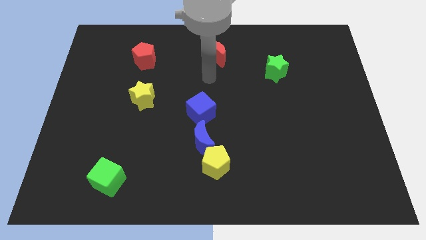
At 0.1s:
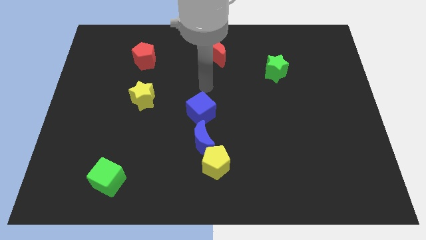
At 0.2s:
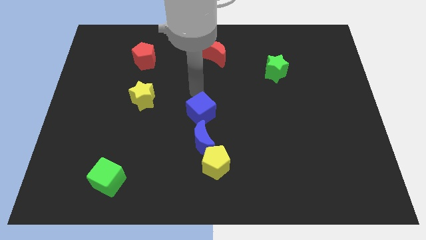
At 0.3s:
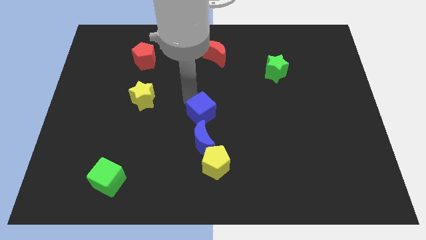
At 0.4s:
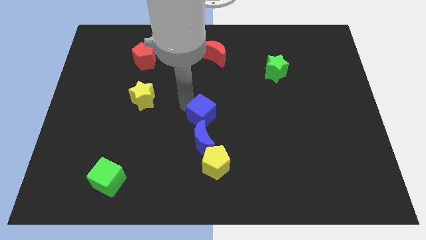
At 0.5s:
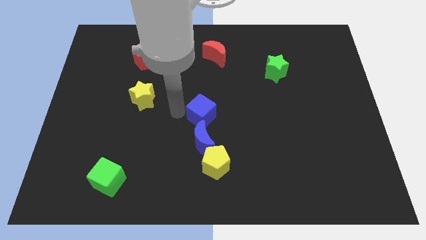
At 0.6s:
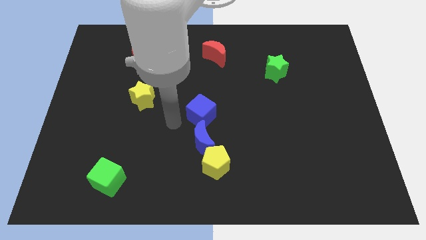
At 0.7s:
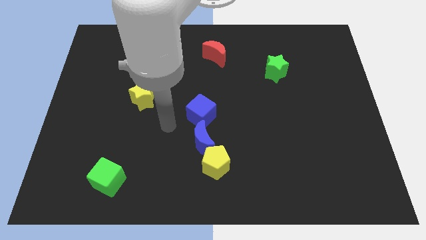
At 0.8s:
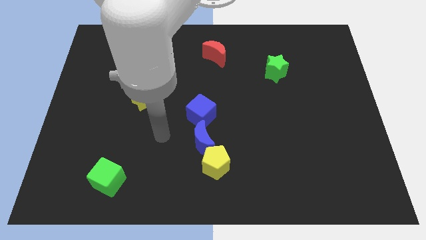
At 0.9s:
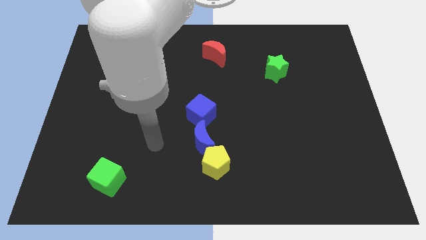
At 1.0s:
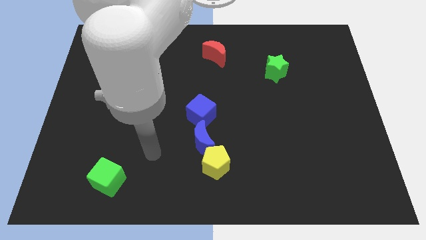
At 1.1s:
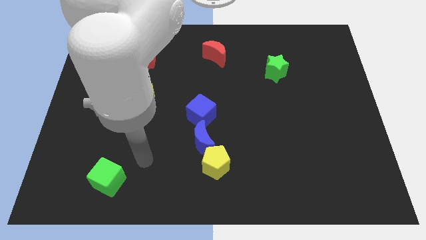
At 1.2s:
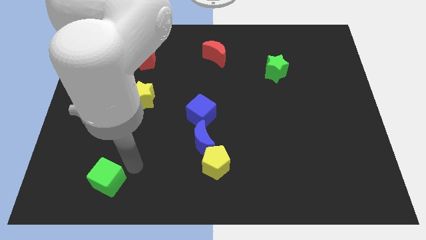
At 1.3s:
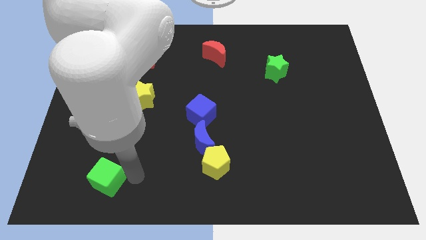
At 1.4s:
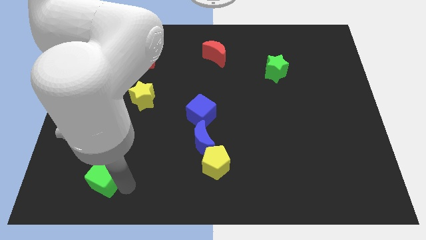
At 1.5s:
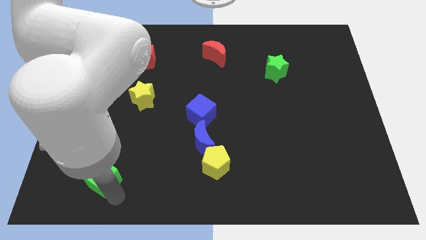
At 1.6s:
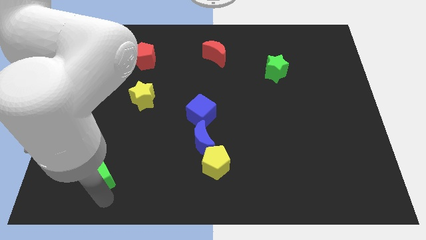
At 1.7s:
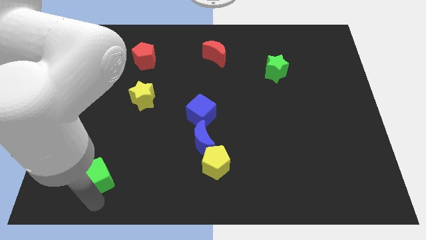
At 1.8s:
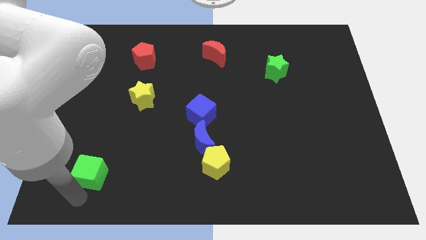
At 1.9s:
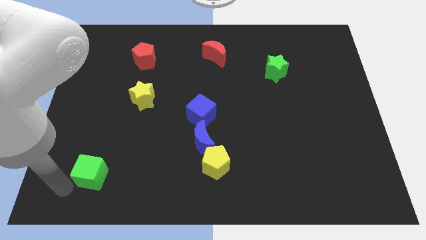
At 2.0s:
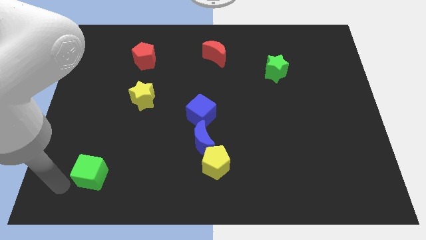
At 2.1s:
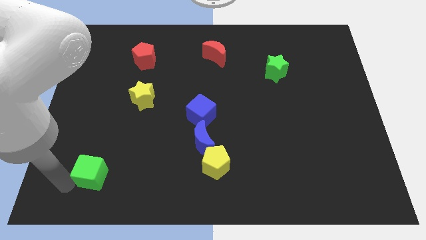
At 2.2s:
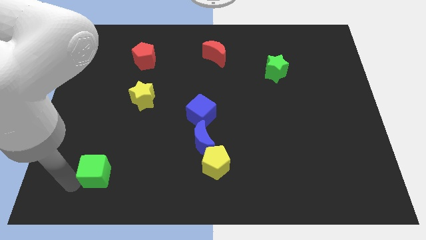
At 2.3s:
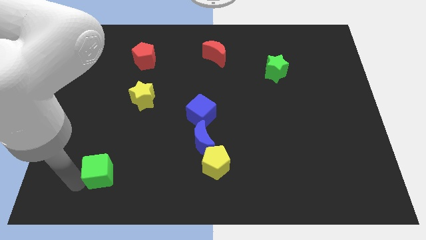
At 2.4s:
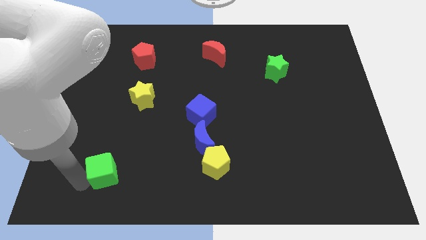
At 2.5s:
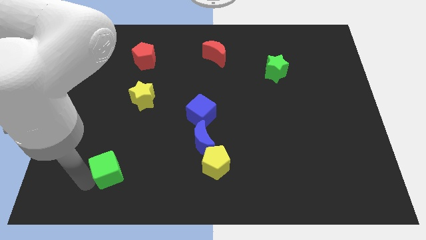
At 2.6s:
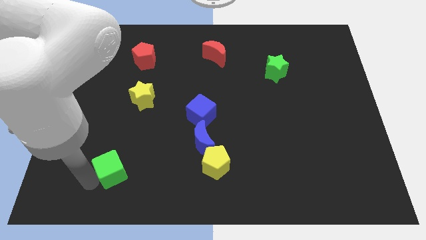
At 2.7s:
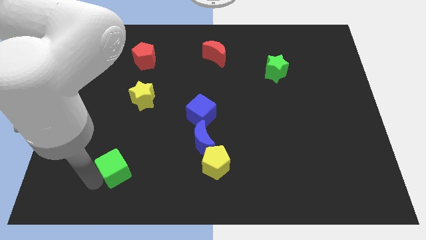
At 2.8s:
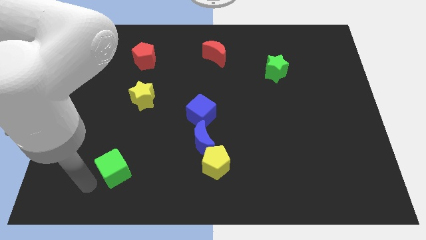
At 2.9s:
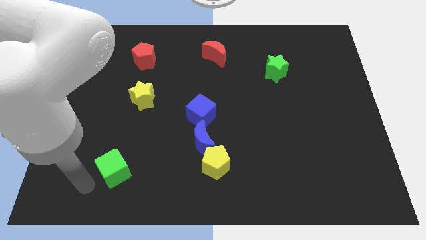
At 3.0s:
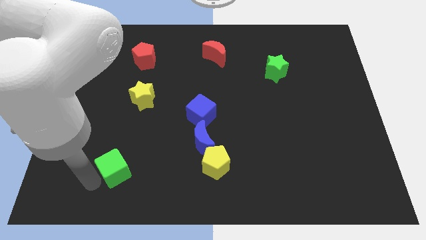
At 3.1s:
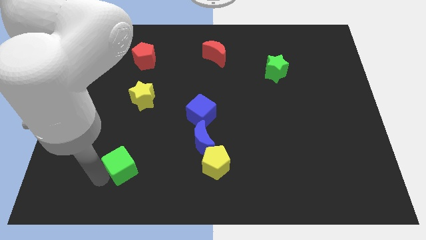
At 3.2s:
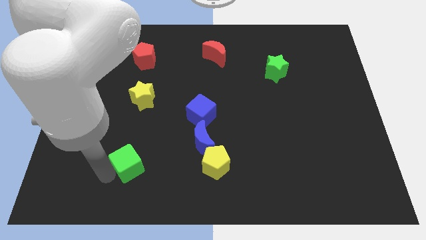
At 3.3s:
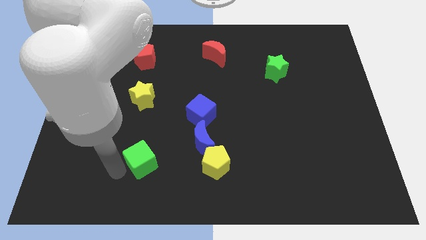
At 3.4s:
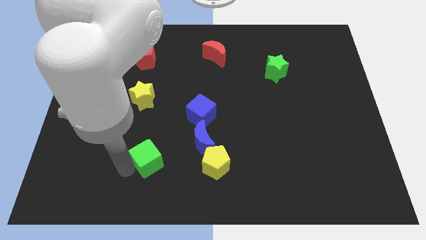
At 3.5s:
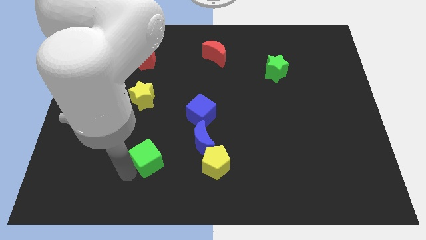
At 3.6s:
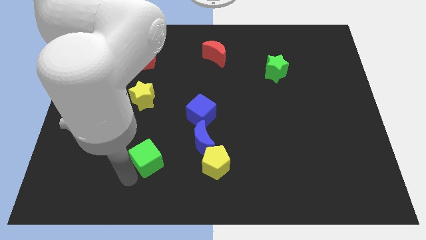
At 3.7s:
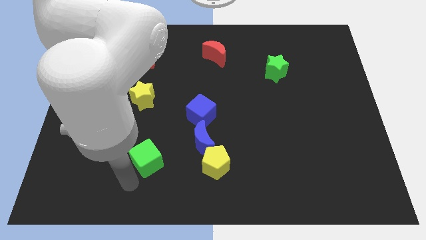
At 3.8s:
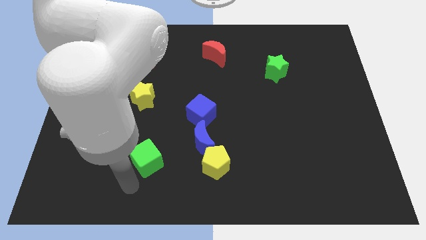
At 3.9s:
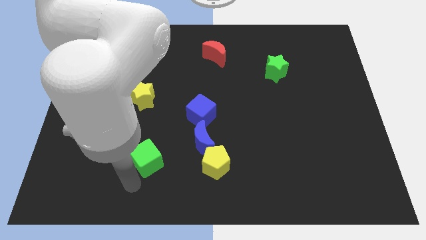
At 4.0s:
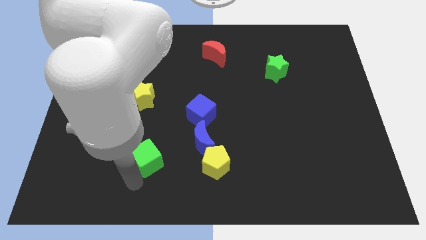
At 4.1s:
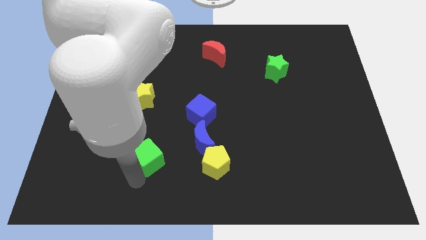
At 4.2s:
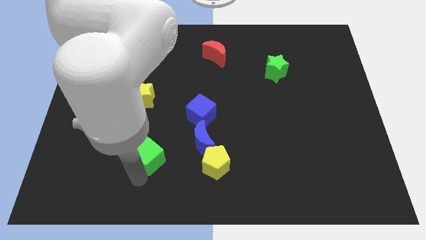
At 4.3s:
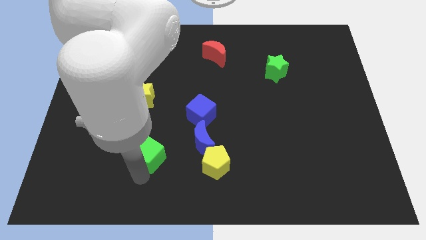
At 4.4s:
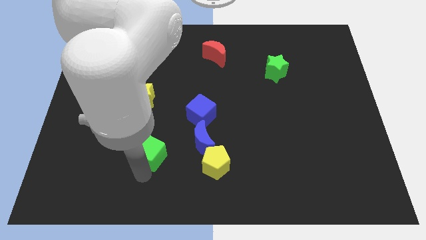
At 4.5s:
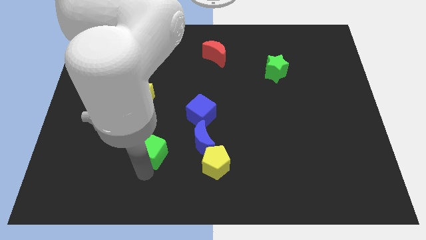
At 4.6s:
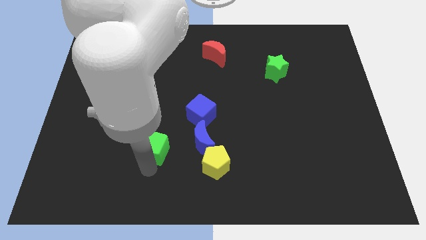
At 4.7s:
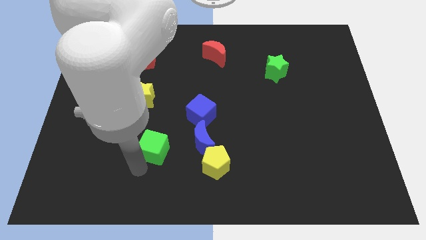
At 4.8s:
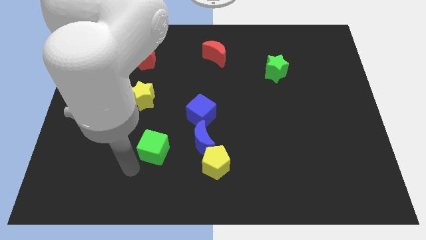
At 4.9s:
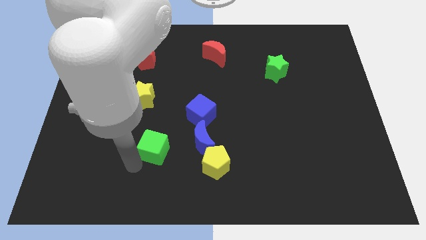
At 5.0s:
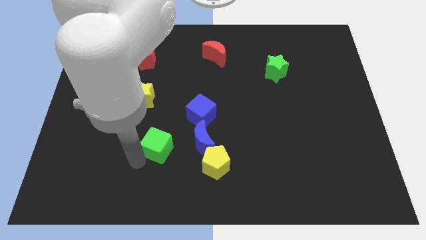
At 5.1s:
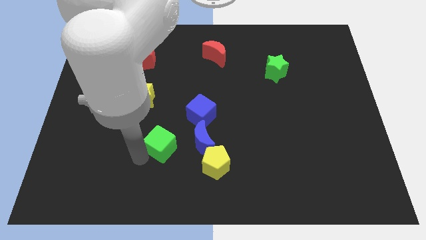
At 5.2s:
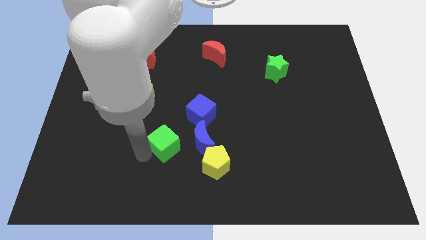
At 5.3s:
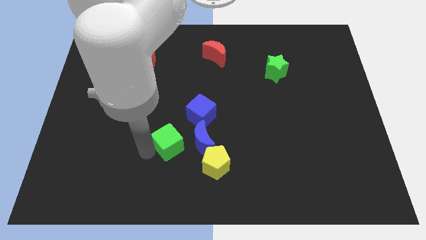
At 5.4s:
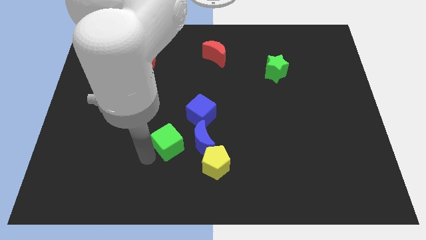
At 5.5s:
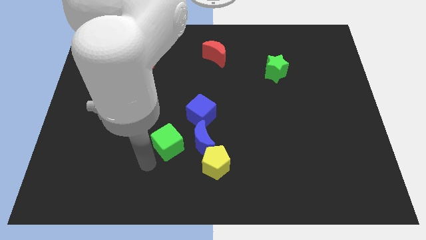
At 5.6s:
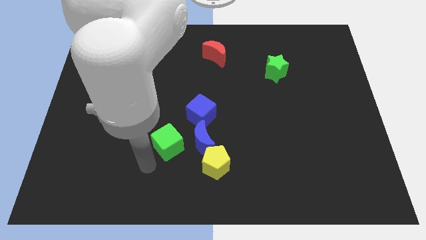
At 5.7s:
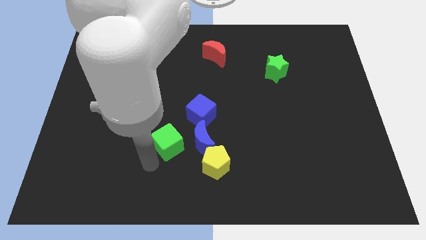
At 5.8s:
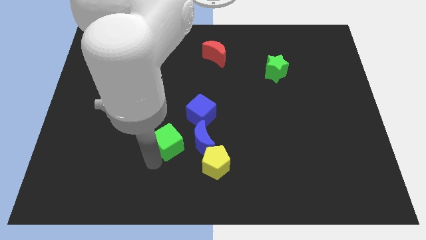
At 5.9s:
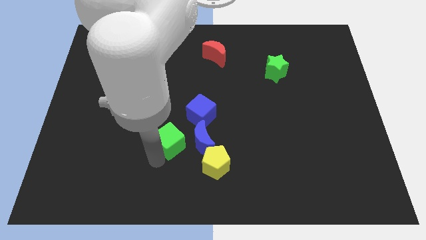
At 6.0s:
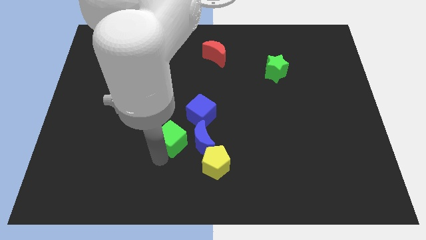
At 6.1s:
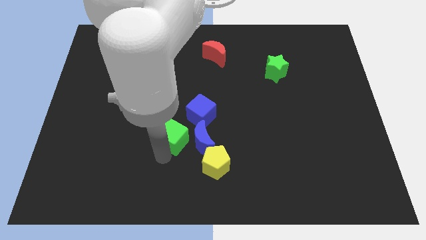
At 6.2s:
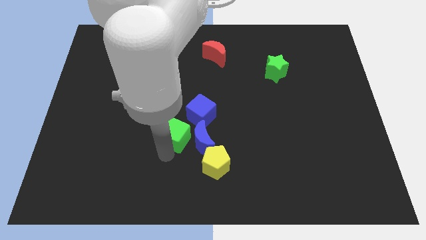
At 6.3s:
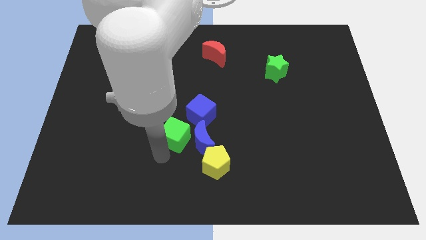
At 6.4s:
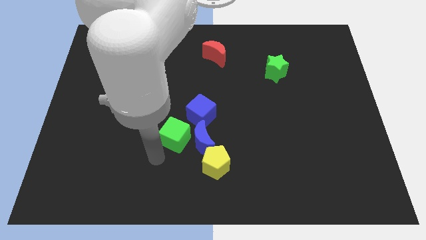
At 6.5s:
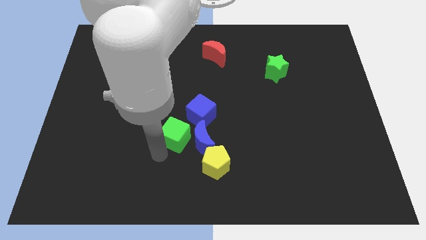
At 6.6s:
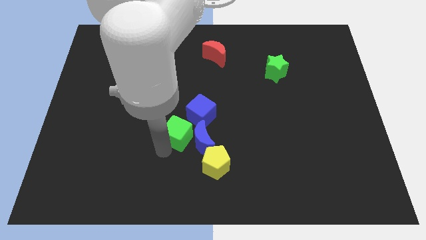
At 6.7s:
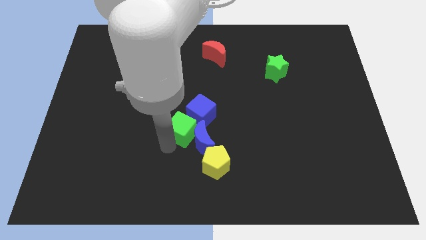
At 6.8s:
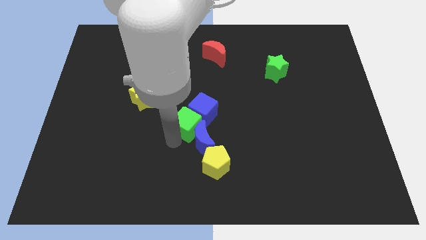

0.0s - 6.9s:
move the green cube close to the blue cube

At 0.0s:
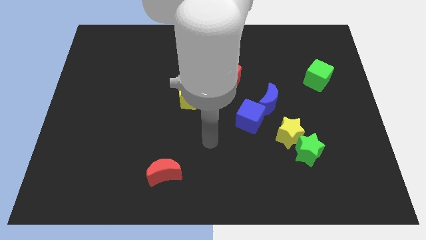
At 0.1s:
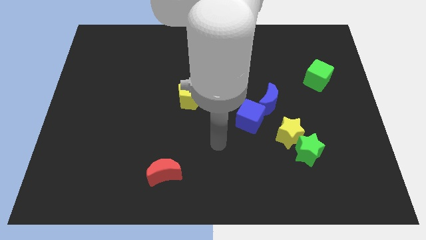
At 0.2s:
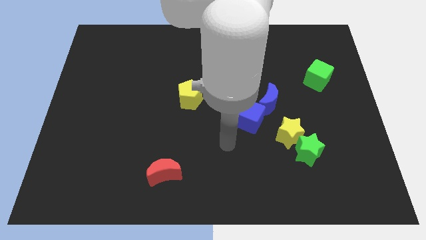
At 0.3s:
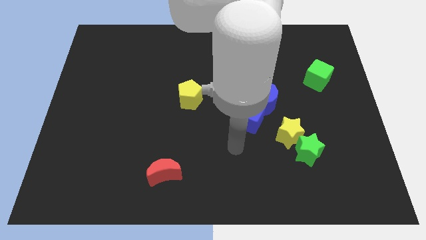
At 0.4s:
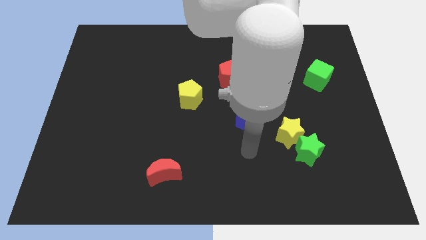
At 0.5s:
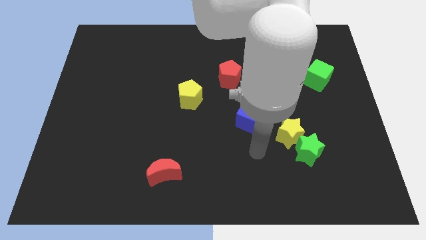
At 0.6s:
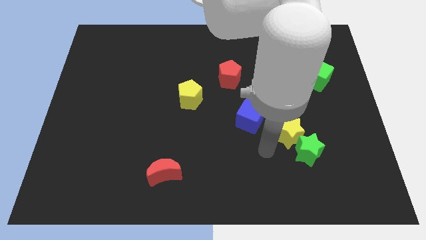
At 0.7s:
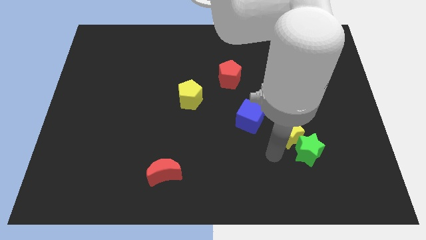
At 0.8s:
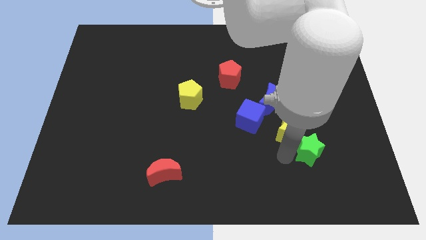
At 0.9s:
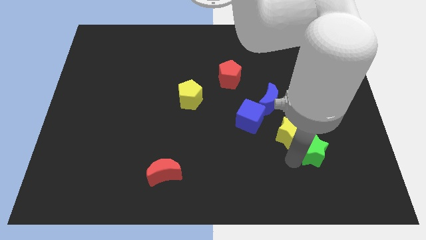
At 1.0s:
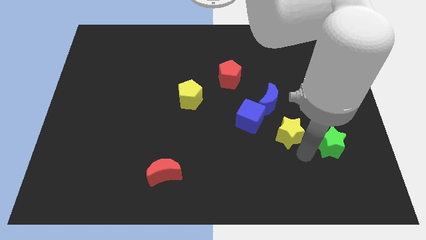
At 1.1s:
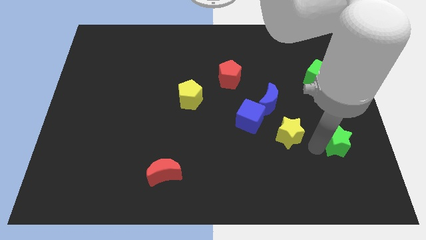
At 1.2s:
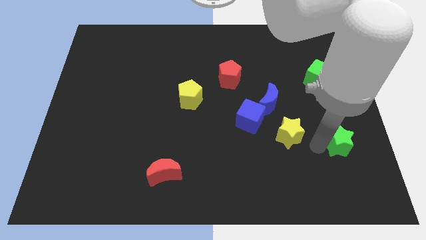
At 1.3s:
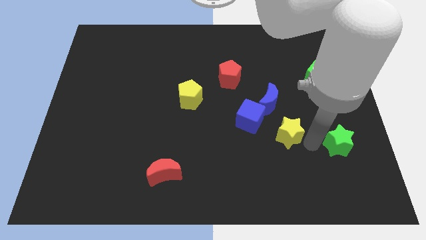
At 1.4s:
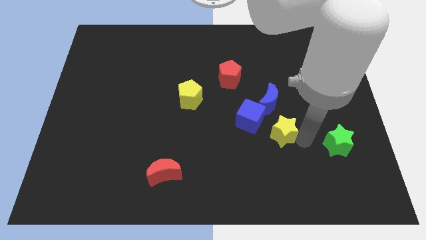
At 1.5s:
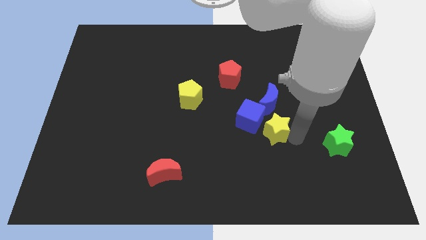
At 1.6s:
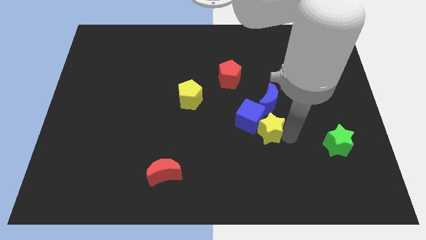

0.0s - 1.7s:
move the yellow star next to the blue cube
